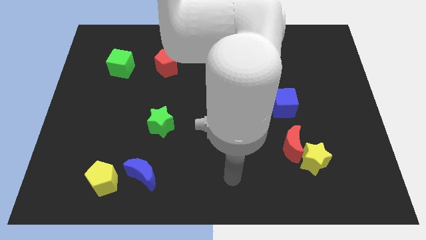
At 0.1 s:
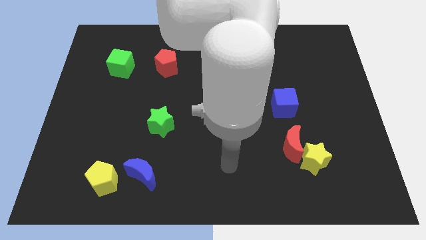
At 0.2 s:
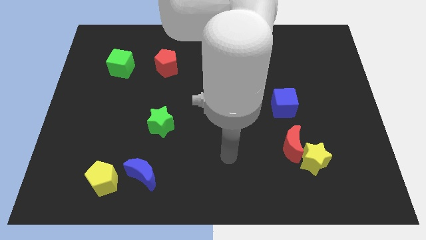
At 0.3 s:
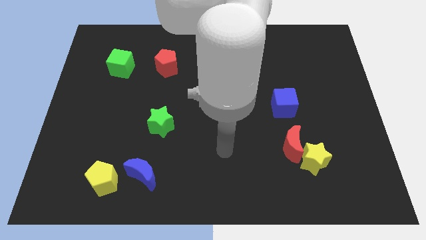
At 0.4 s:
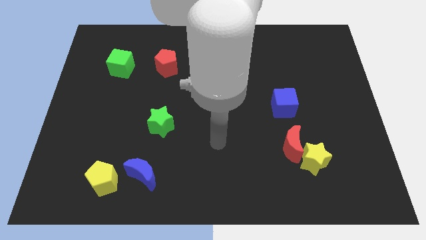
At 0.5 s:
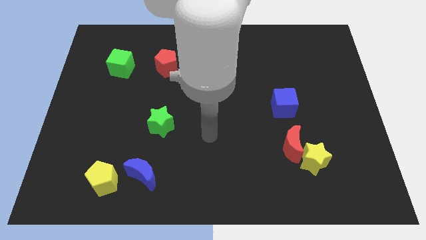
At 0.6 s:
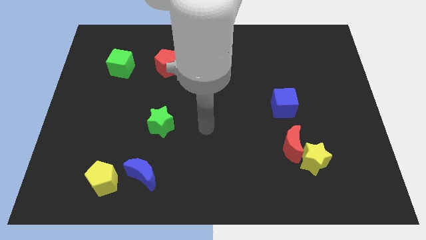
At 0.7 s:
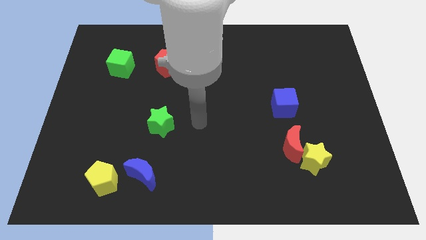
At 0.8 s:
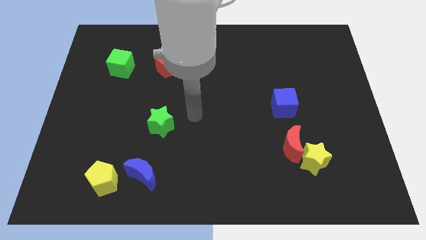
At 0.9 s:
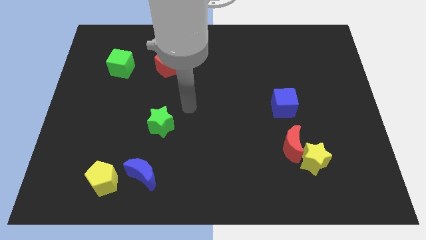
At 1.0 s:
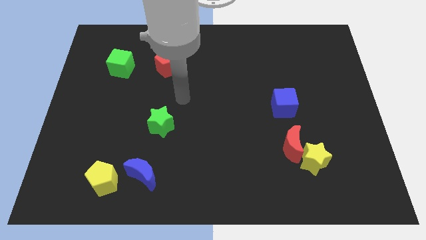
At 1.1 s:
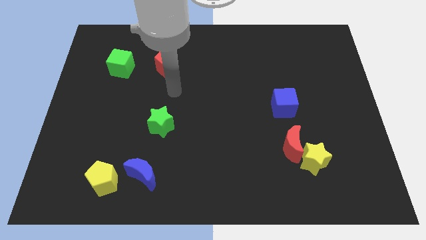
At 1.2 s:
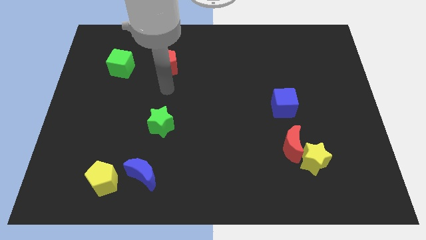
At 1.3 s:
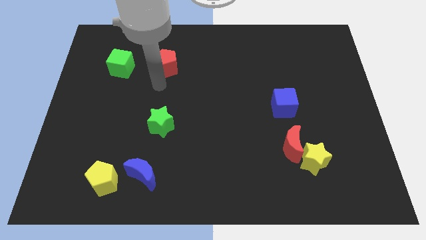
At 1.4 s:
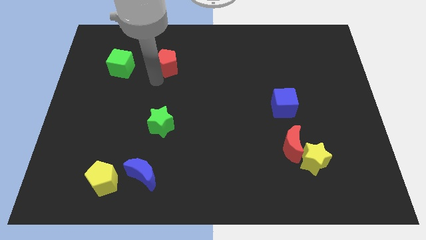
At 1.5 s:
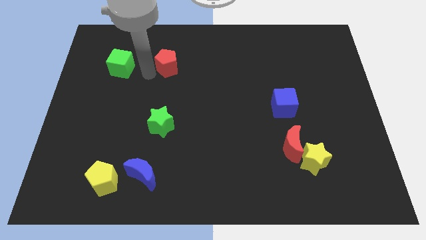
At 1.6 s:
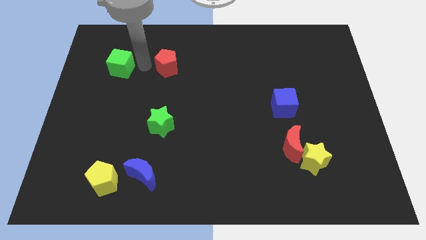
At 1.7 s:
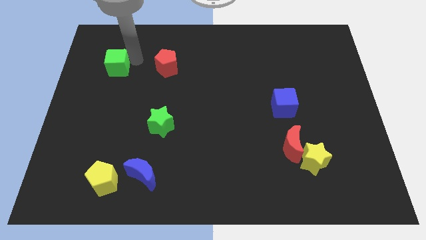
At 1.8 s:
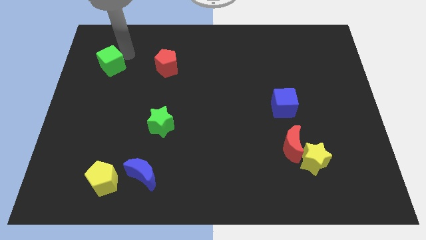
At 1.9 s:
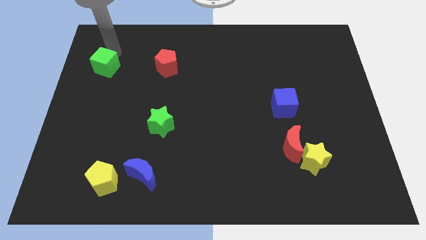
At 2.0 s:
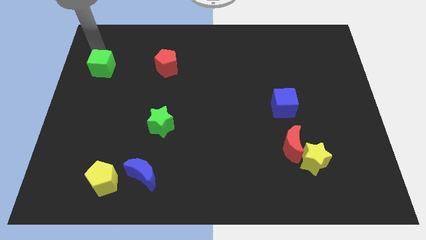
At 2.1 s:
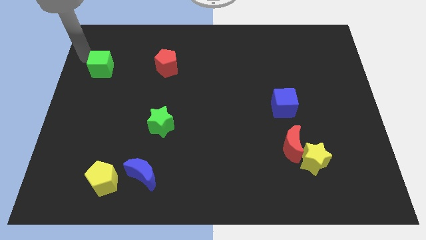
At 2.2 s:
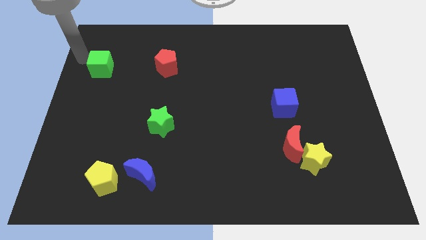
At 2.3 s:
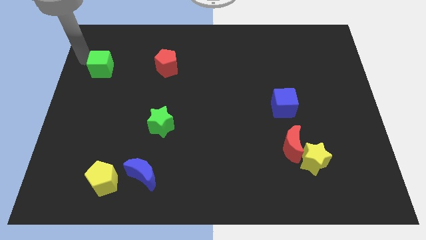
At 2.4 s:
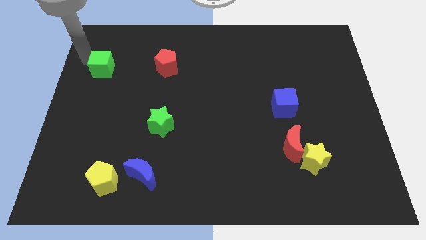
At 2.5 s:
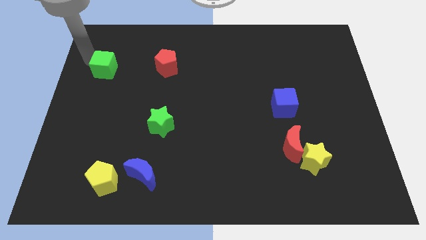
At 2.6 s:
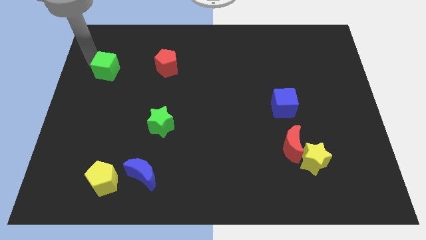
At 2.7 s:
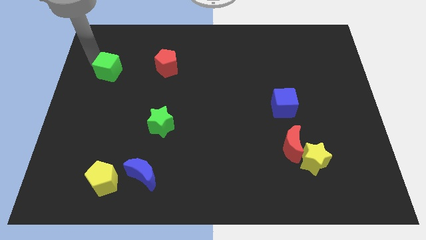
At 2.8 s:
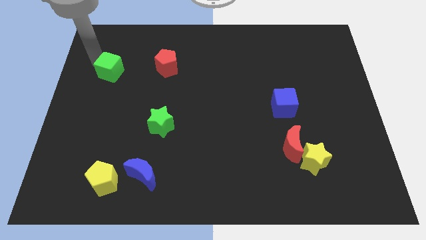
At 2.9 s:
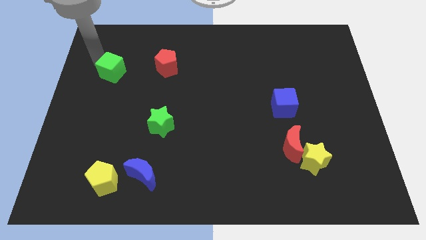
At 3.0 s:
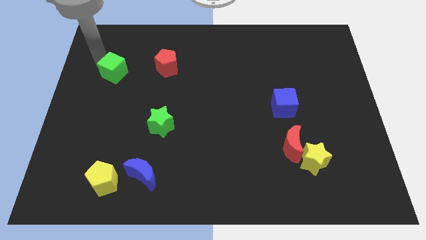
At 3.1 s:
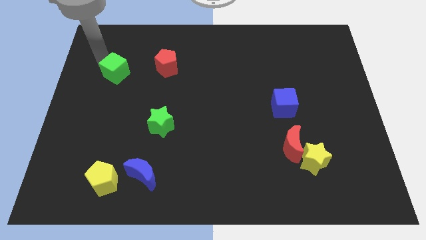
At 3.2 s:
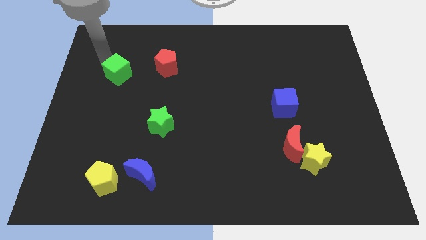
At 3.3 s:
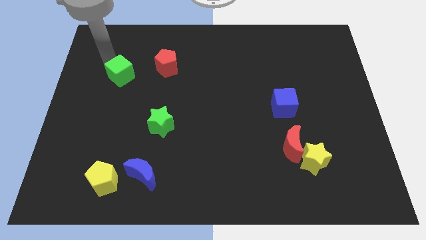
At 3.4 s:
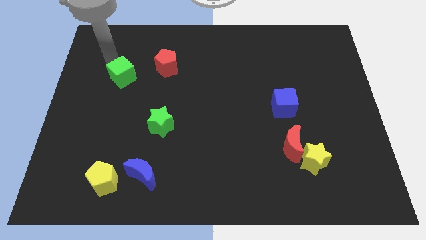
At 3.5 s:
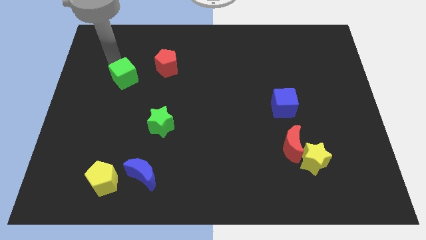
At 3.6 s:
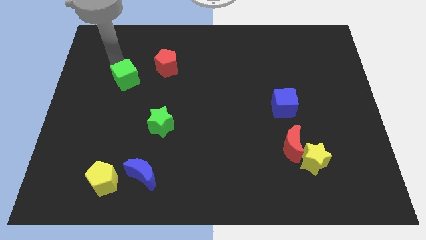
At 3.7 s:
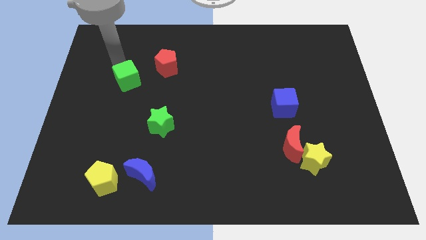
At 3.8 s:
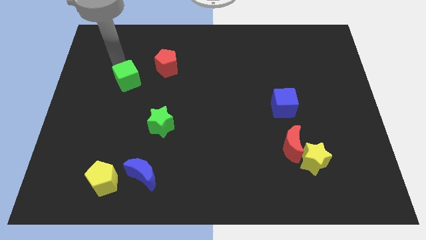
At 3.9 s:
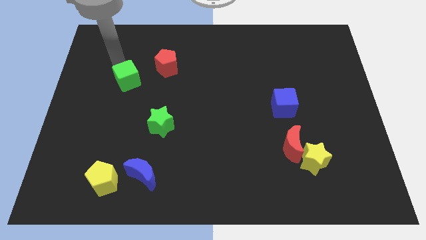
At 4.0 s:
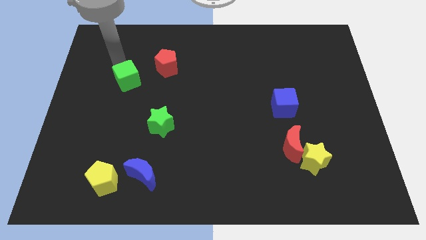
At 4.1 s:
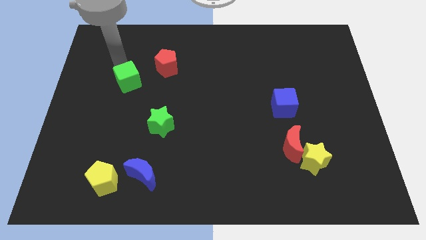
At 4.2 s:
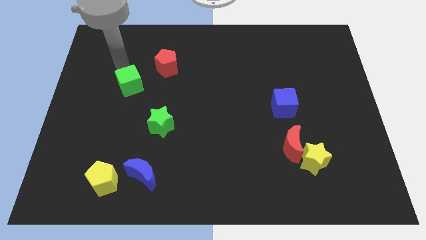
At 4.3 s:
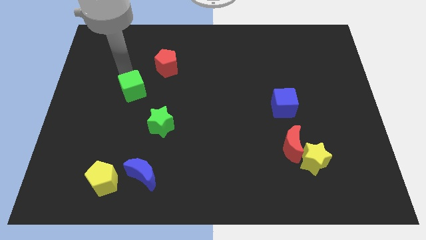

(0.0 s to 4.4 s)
move the green cube downwards and then right a little bit

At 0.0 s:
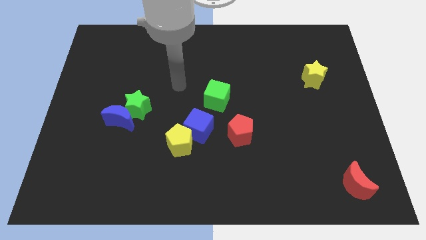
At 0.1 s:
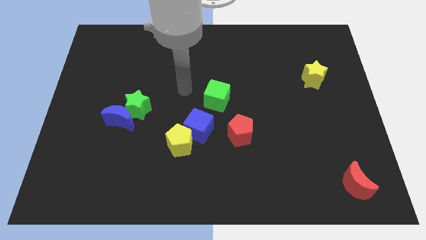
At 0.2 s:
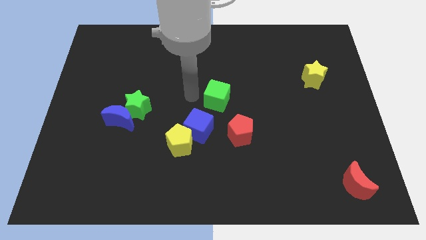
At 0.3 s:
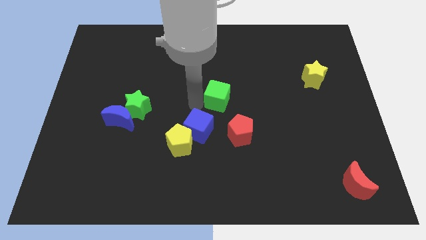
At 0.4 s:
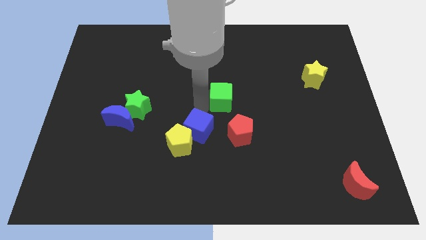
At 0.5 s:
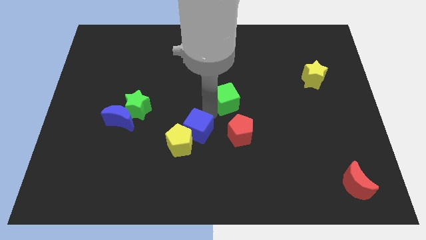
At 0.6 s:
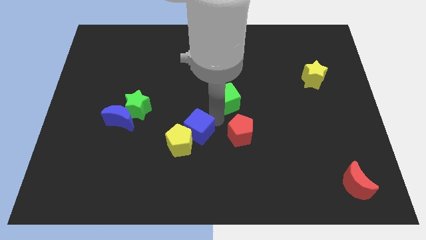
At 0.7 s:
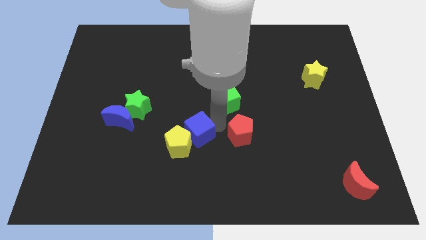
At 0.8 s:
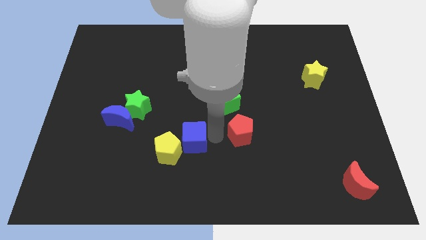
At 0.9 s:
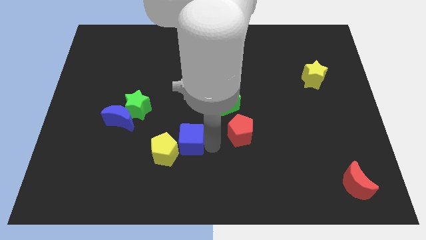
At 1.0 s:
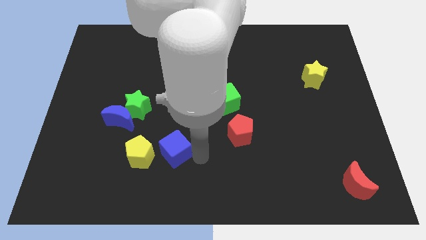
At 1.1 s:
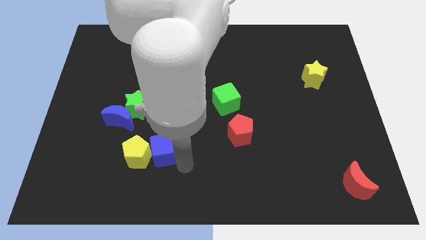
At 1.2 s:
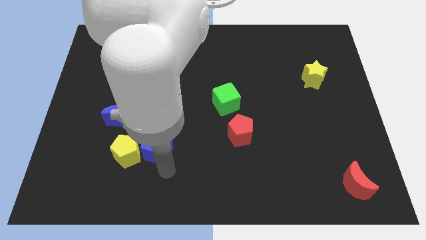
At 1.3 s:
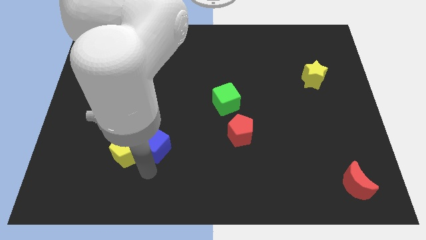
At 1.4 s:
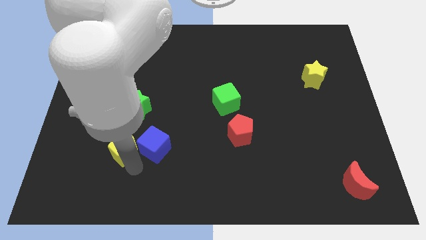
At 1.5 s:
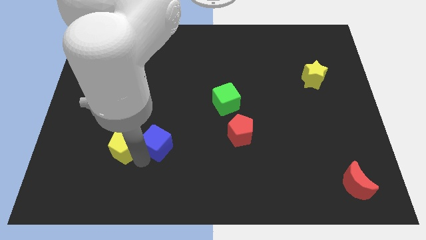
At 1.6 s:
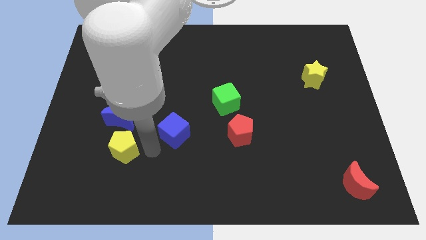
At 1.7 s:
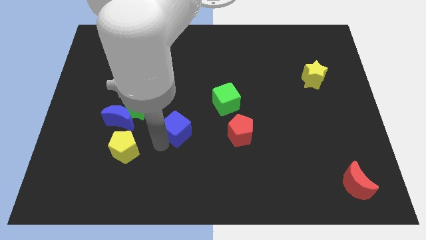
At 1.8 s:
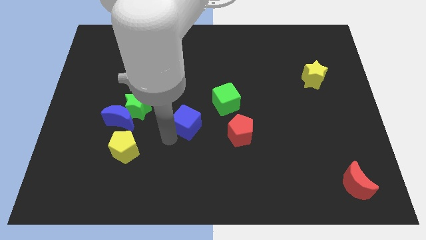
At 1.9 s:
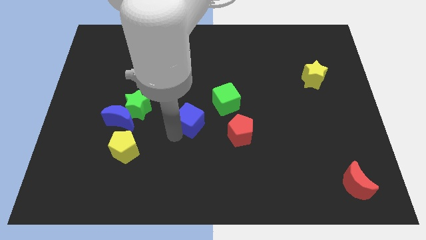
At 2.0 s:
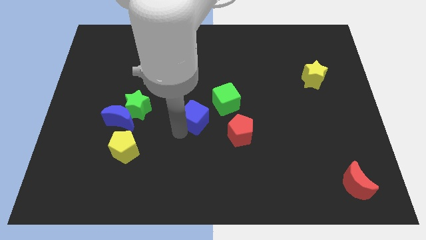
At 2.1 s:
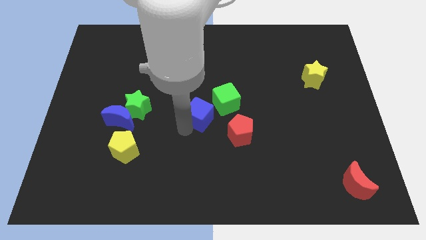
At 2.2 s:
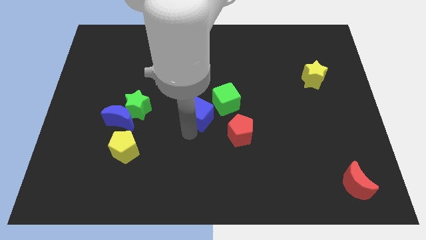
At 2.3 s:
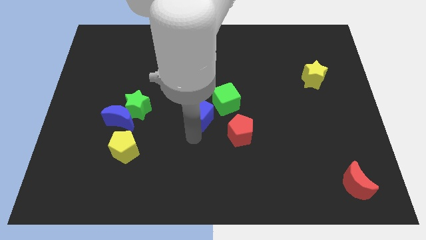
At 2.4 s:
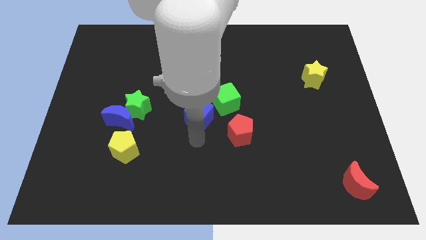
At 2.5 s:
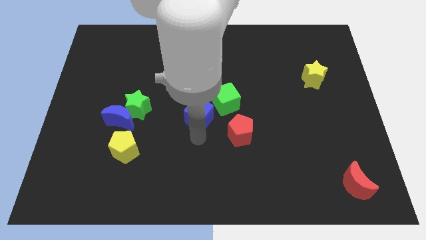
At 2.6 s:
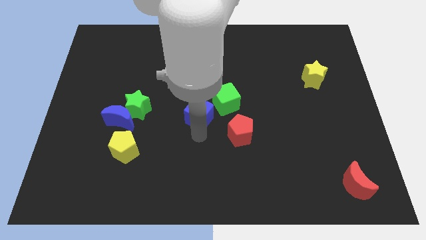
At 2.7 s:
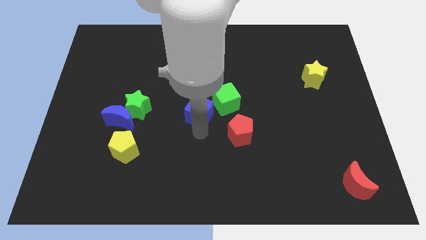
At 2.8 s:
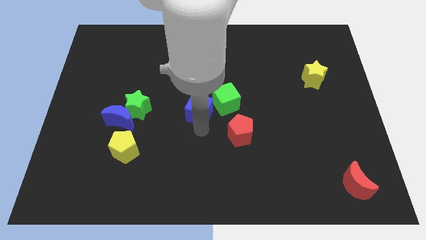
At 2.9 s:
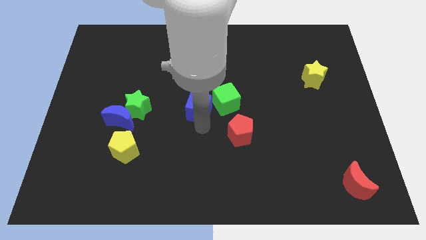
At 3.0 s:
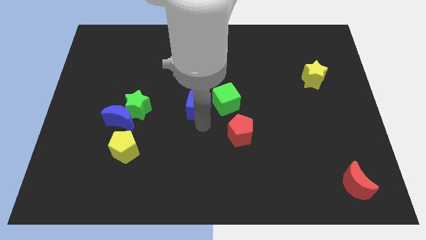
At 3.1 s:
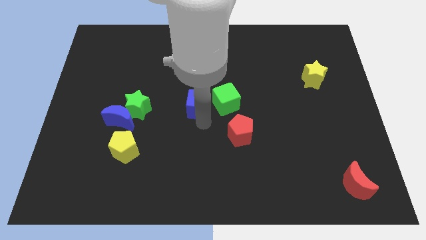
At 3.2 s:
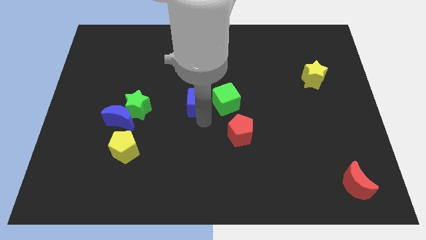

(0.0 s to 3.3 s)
slide the blue cube up slightly
